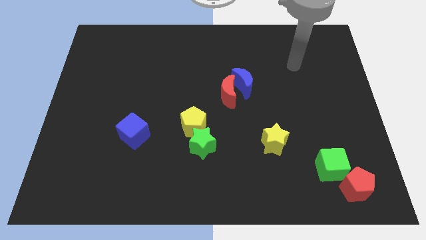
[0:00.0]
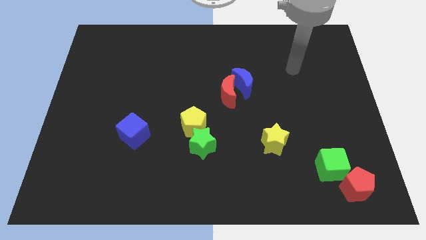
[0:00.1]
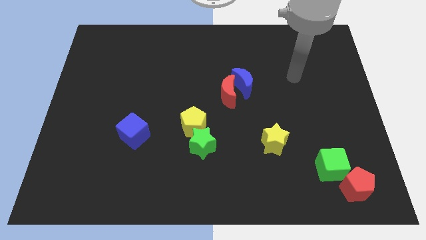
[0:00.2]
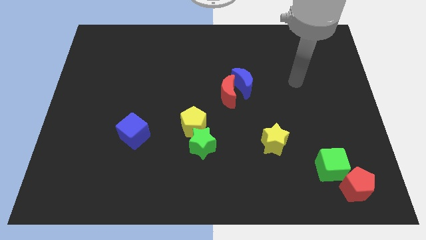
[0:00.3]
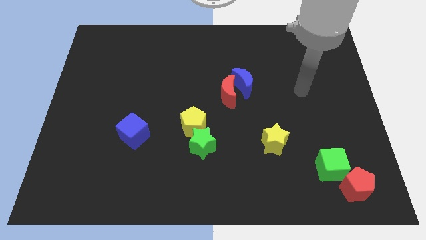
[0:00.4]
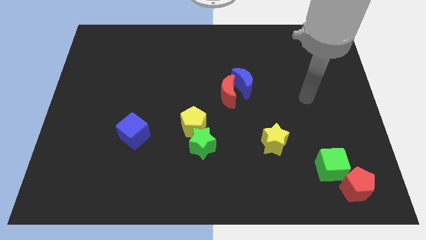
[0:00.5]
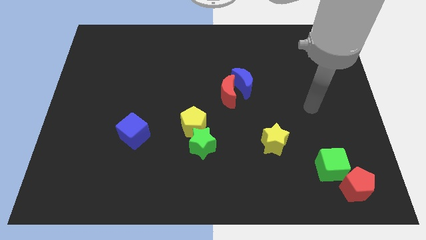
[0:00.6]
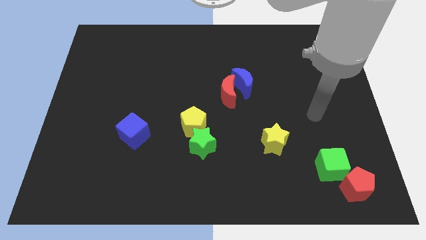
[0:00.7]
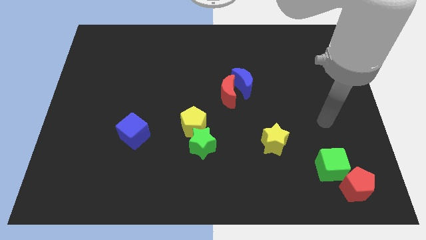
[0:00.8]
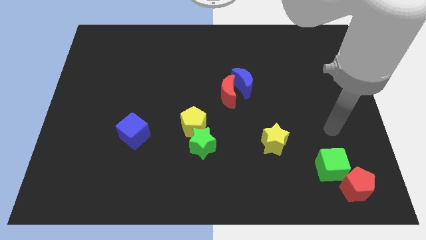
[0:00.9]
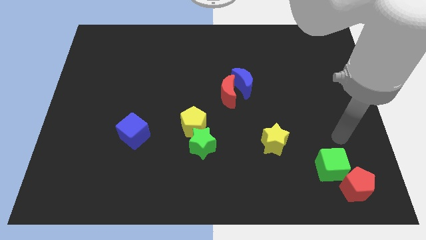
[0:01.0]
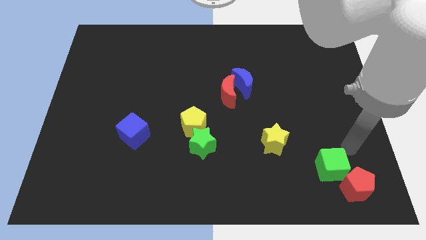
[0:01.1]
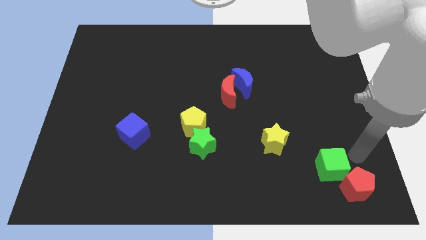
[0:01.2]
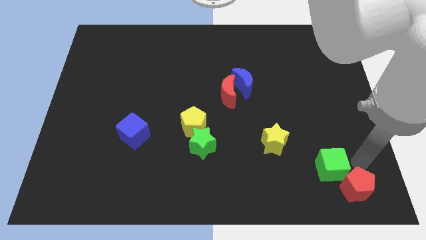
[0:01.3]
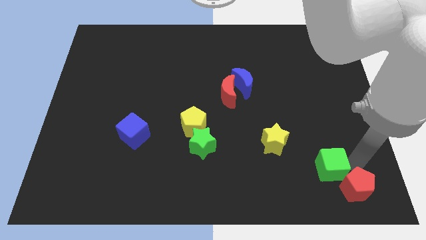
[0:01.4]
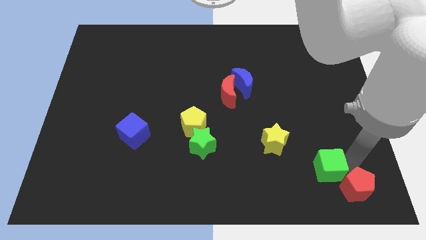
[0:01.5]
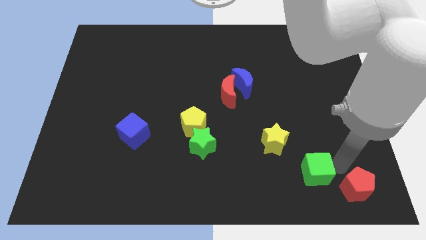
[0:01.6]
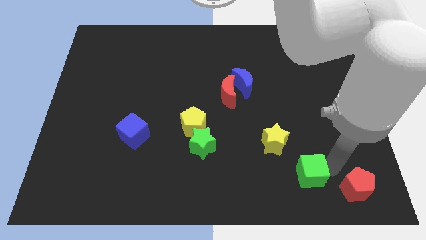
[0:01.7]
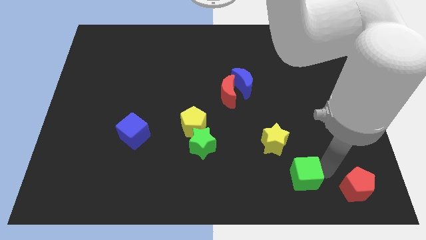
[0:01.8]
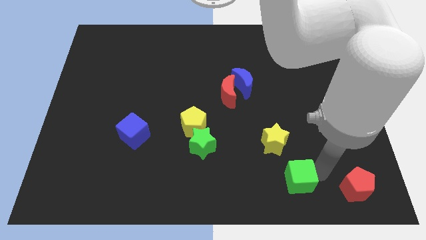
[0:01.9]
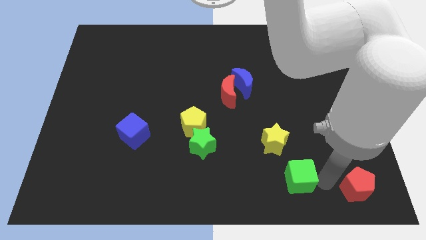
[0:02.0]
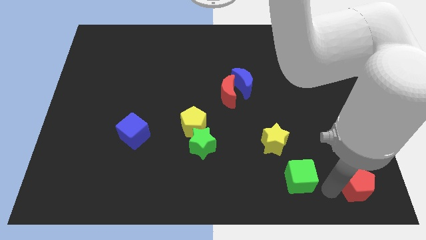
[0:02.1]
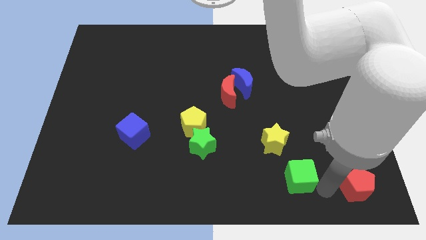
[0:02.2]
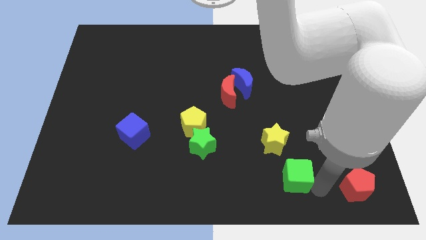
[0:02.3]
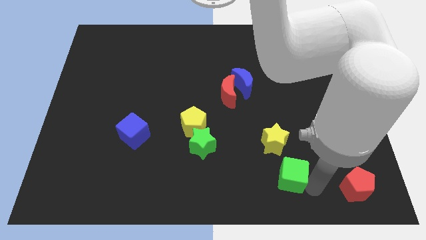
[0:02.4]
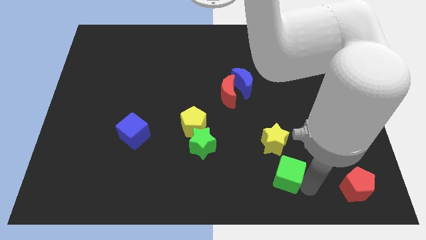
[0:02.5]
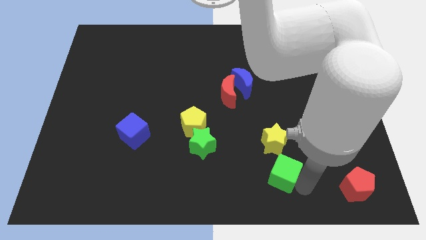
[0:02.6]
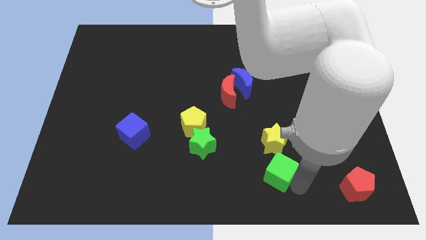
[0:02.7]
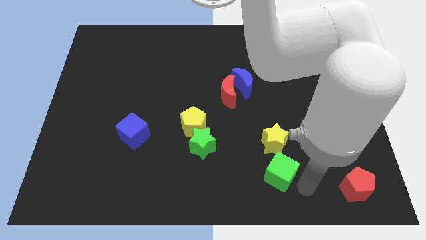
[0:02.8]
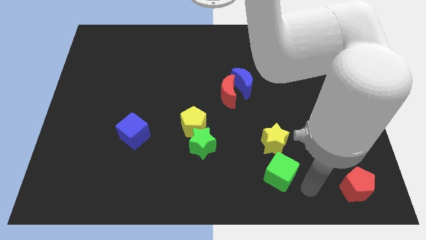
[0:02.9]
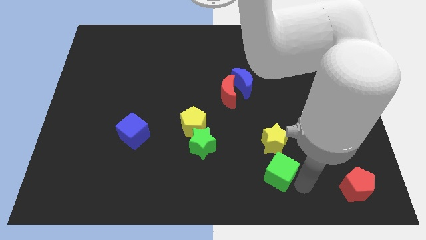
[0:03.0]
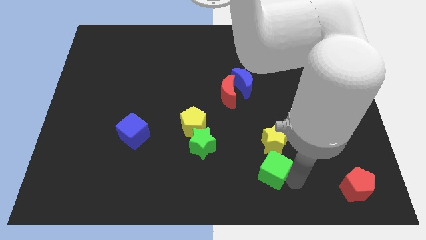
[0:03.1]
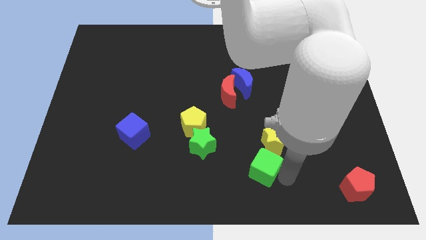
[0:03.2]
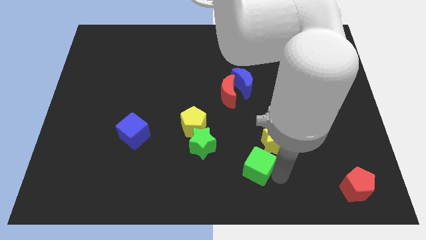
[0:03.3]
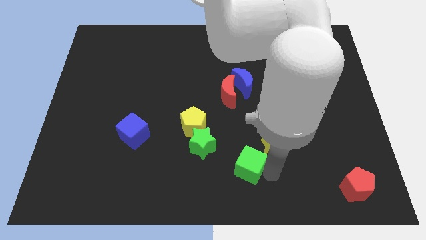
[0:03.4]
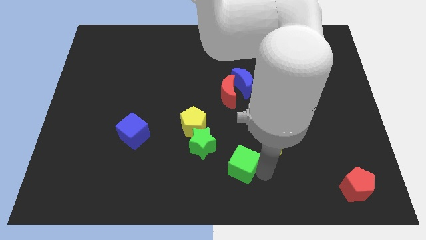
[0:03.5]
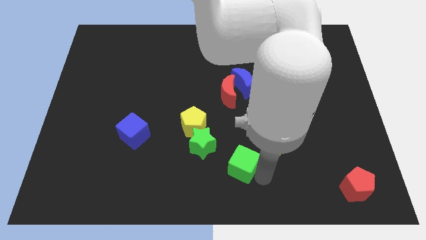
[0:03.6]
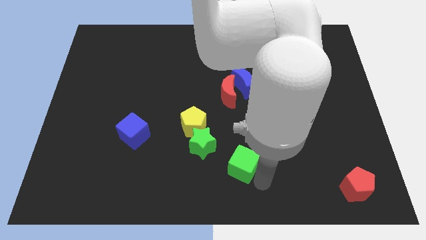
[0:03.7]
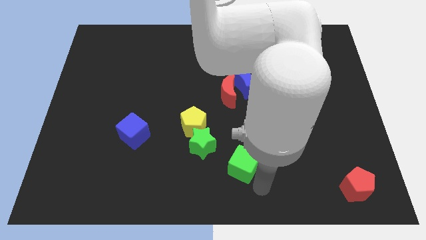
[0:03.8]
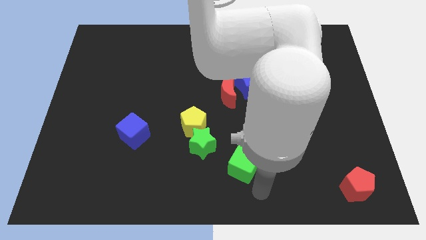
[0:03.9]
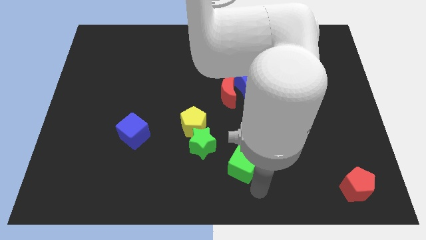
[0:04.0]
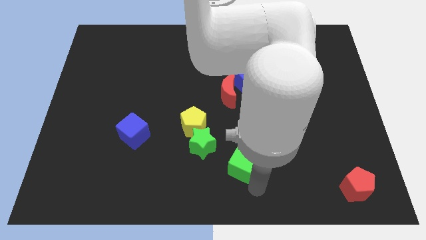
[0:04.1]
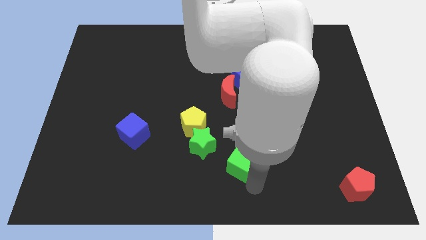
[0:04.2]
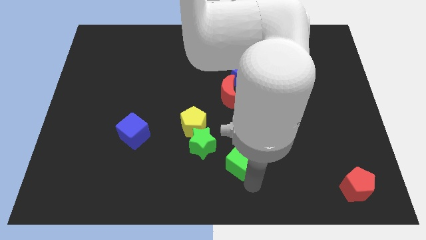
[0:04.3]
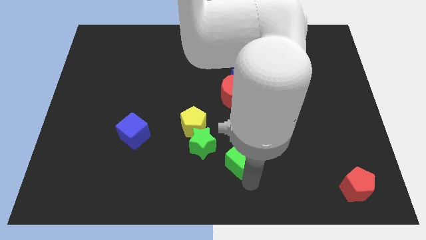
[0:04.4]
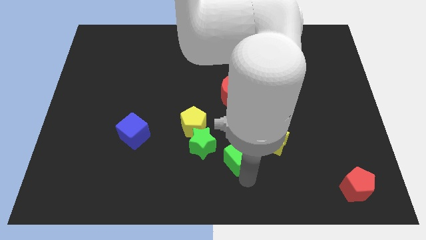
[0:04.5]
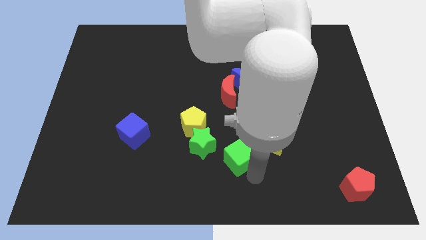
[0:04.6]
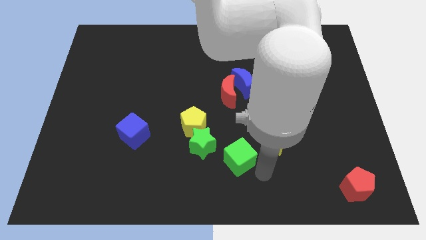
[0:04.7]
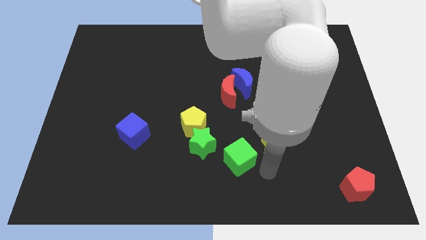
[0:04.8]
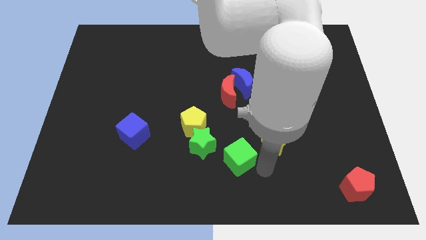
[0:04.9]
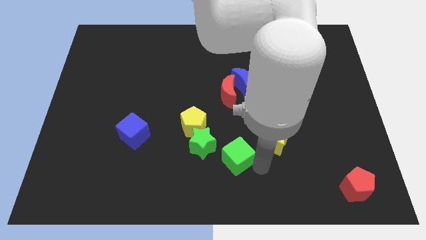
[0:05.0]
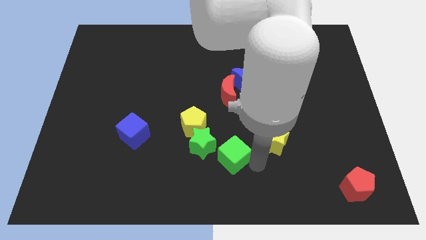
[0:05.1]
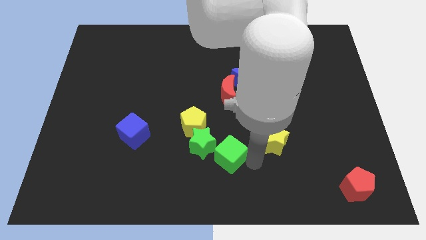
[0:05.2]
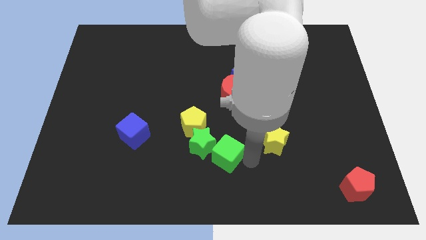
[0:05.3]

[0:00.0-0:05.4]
push the green cube next to the green star

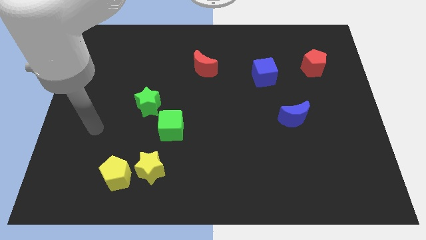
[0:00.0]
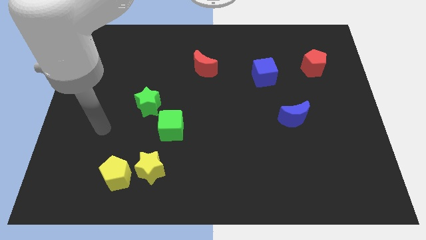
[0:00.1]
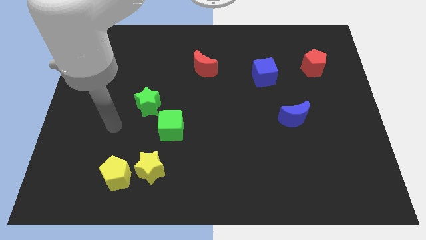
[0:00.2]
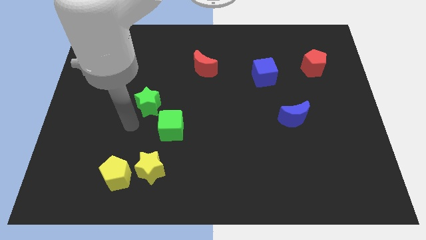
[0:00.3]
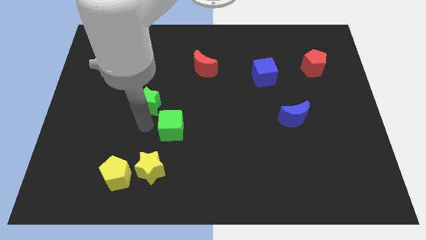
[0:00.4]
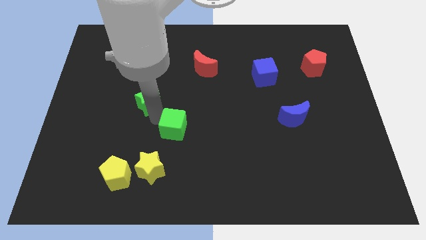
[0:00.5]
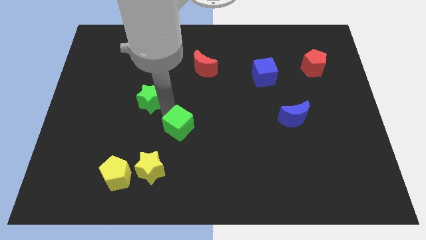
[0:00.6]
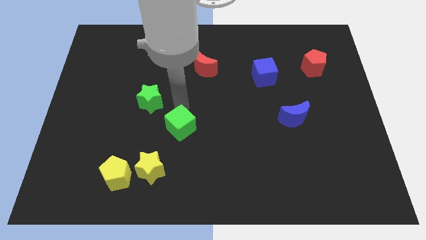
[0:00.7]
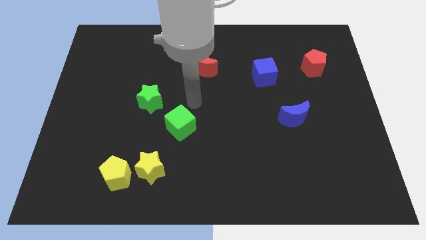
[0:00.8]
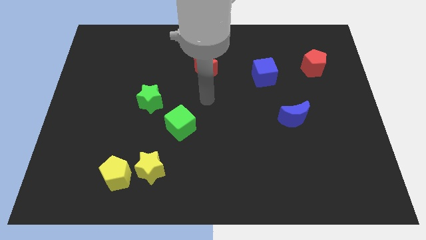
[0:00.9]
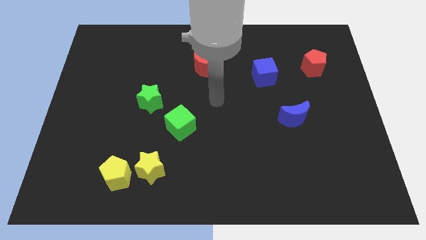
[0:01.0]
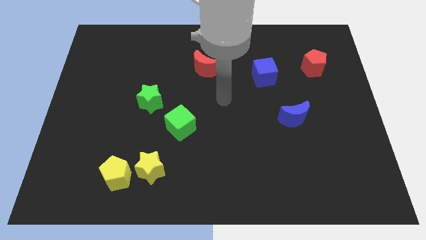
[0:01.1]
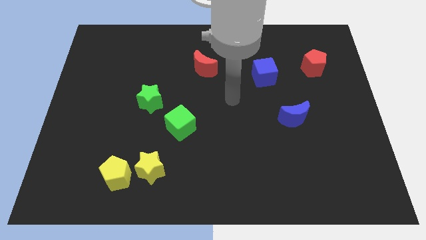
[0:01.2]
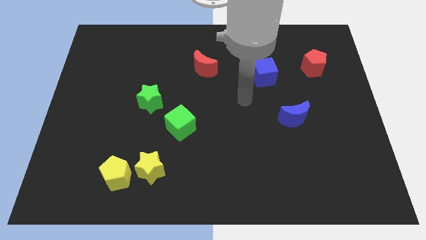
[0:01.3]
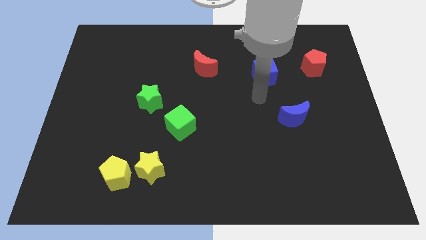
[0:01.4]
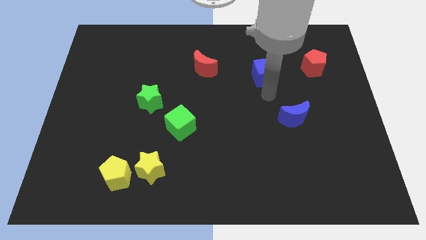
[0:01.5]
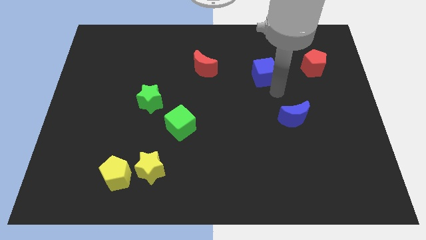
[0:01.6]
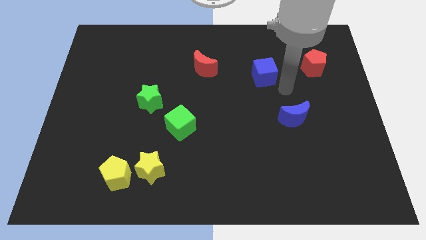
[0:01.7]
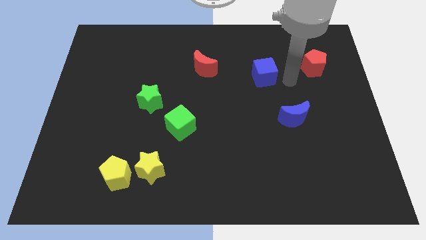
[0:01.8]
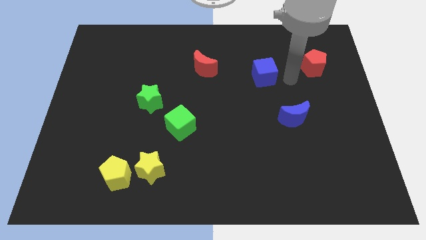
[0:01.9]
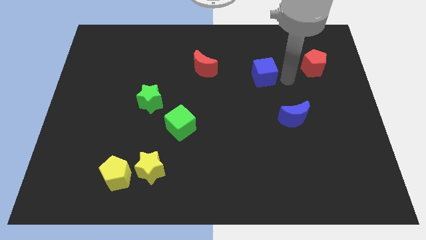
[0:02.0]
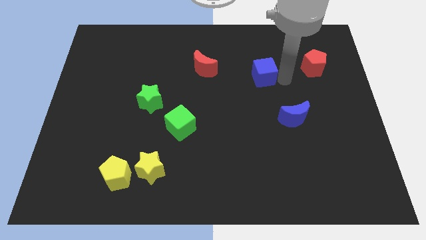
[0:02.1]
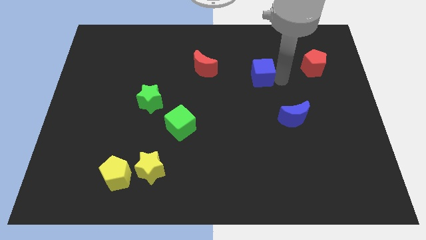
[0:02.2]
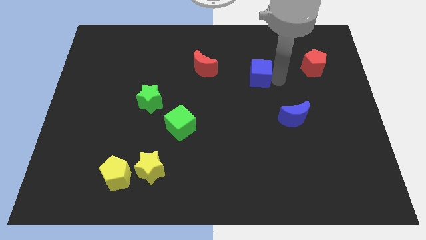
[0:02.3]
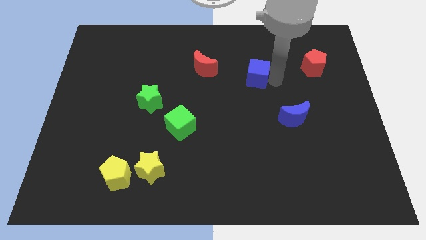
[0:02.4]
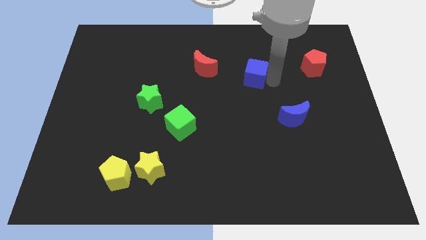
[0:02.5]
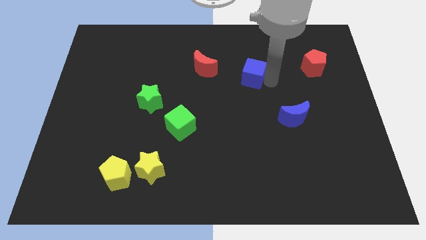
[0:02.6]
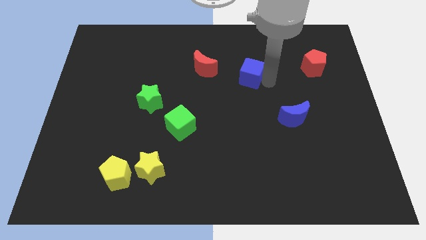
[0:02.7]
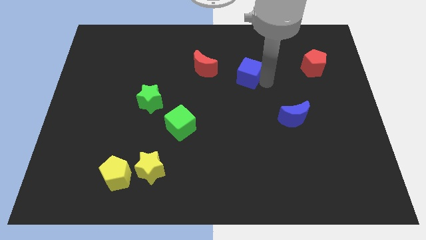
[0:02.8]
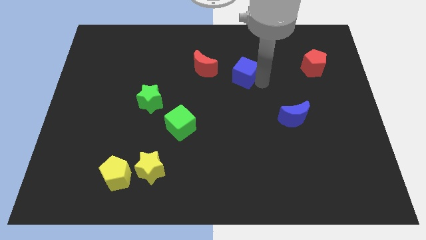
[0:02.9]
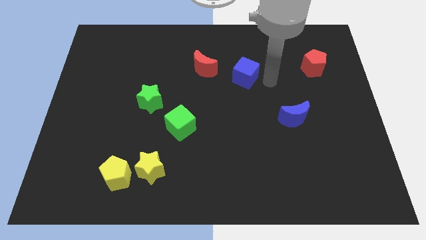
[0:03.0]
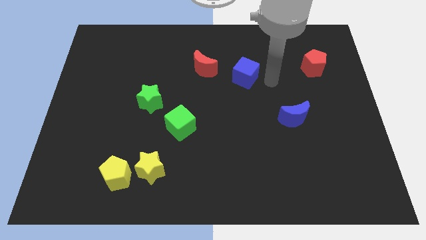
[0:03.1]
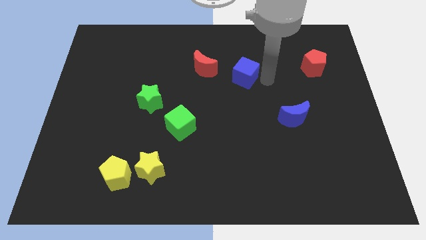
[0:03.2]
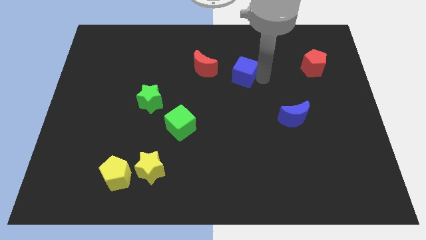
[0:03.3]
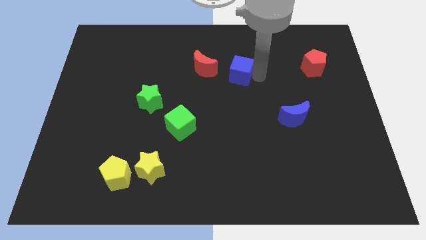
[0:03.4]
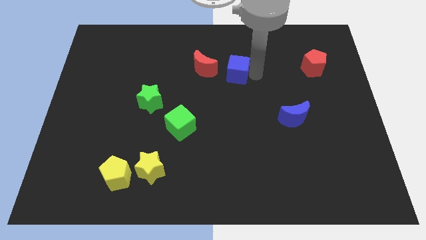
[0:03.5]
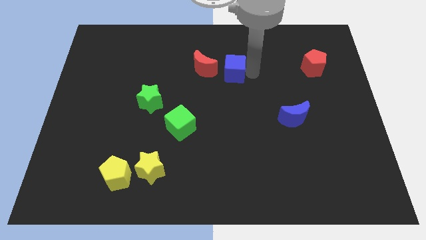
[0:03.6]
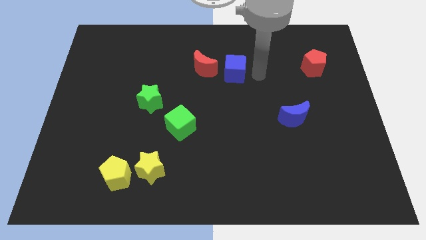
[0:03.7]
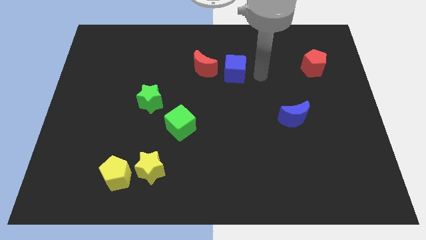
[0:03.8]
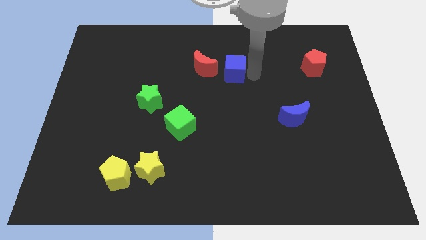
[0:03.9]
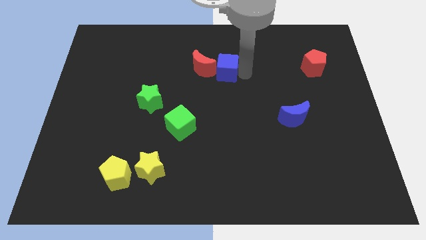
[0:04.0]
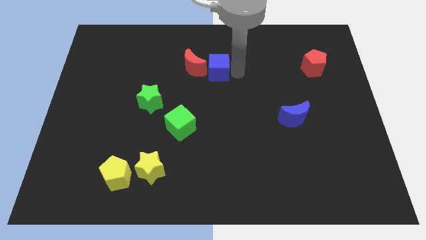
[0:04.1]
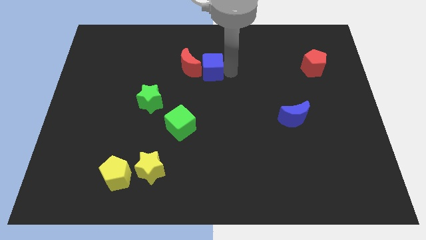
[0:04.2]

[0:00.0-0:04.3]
push the blue cube next to the red moon
